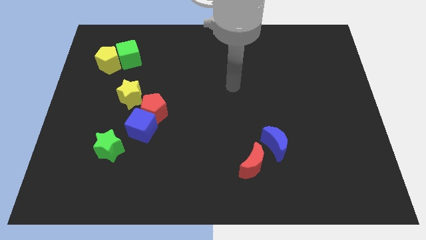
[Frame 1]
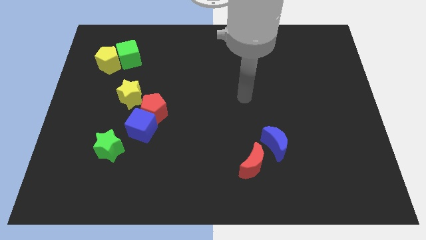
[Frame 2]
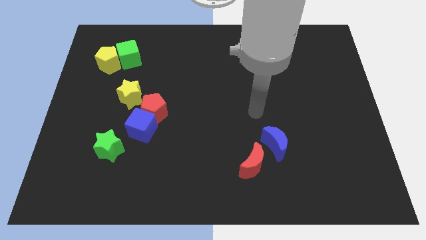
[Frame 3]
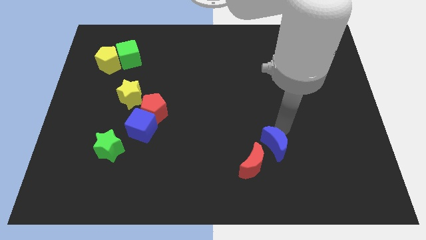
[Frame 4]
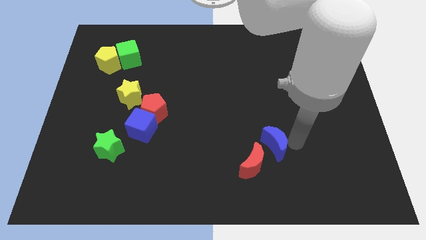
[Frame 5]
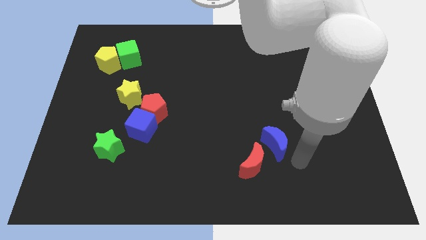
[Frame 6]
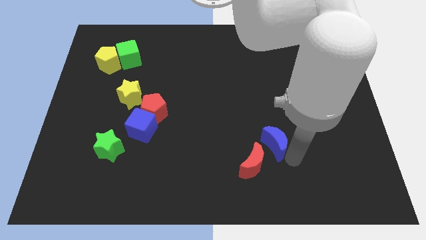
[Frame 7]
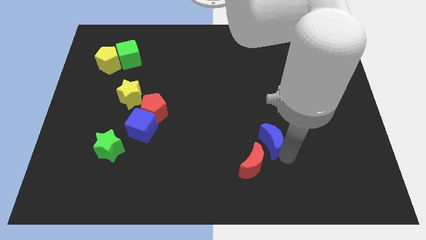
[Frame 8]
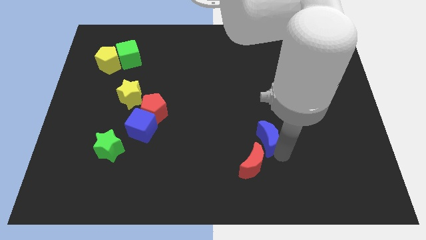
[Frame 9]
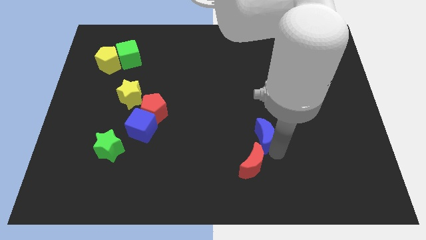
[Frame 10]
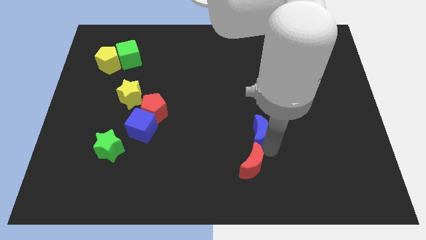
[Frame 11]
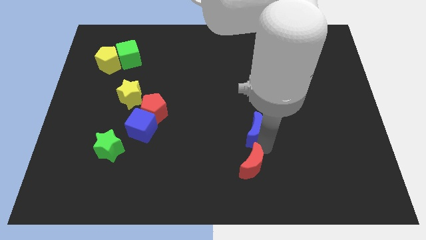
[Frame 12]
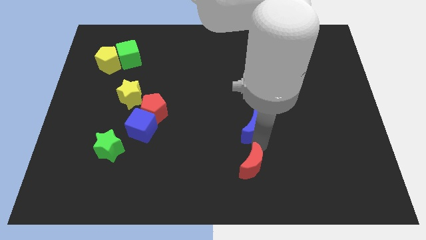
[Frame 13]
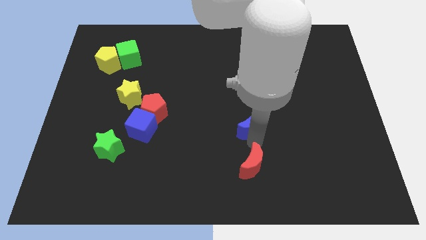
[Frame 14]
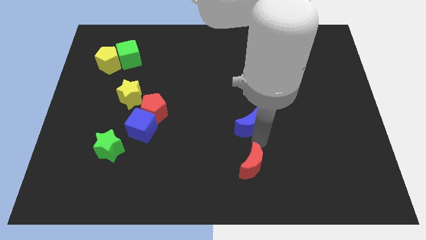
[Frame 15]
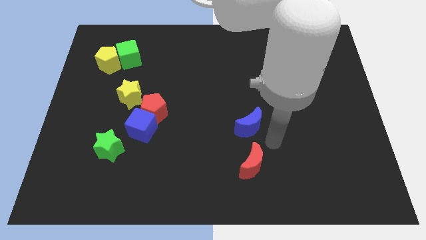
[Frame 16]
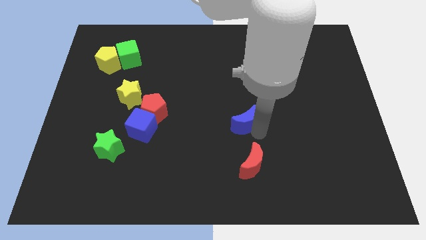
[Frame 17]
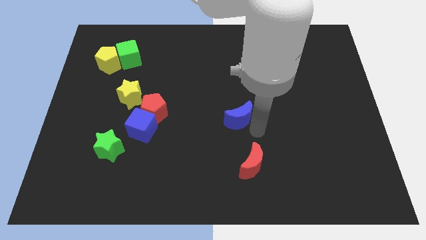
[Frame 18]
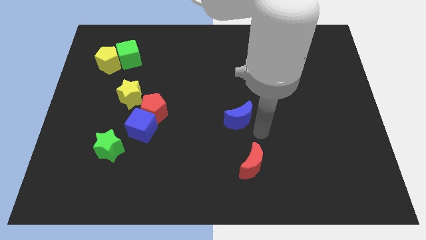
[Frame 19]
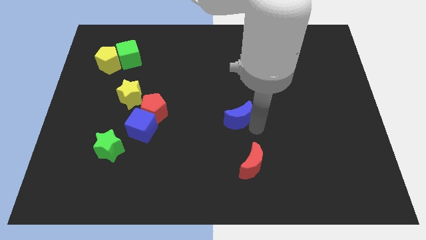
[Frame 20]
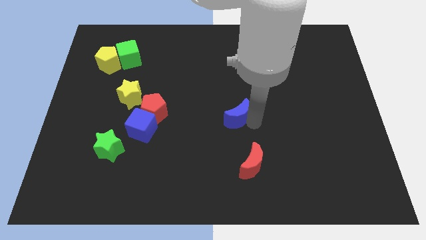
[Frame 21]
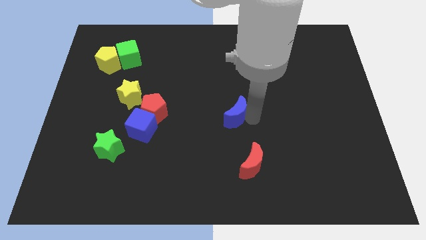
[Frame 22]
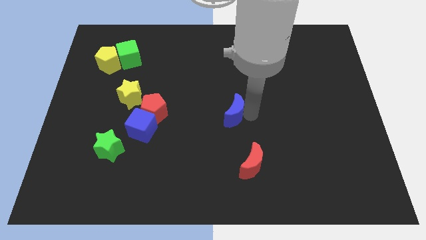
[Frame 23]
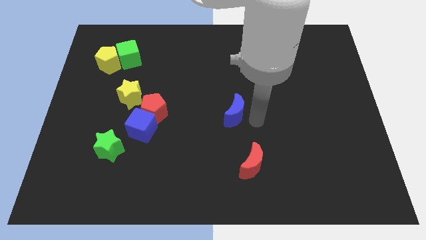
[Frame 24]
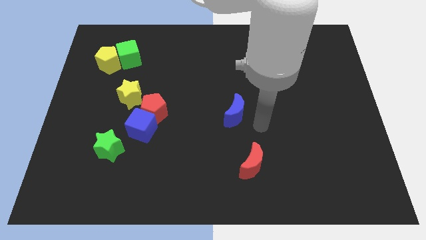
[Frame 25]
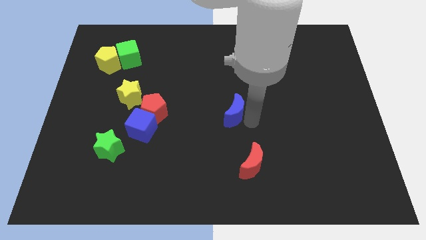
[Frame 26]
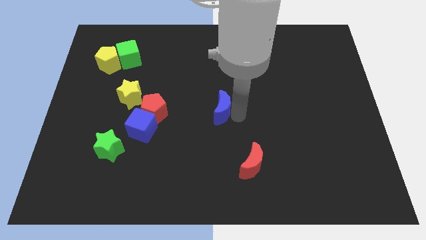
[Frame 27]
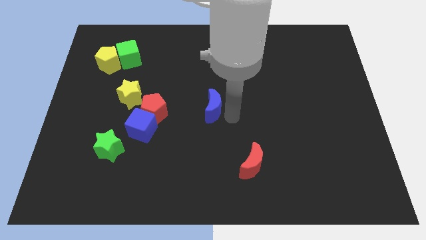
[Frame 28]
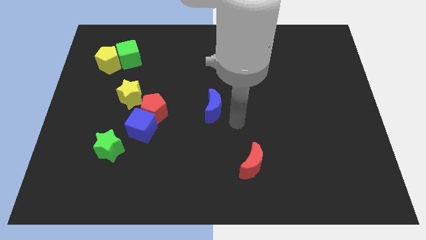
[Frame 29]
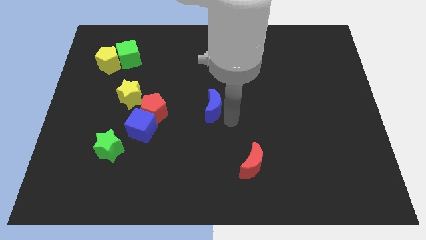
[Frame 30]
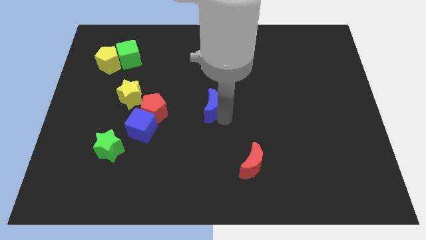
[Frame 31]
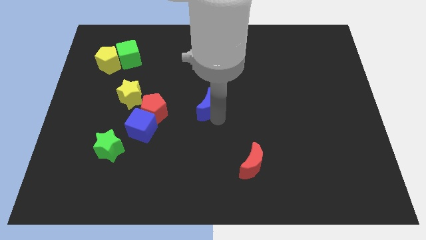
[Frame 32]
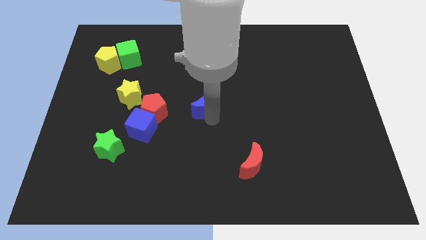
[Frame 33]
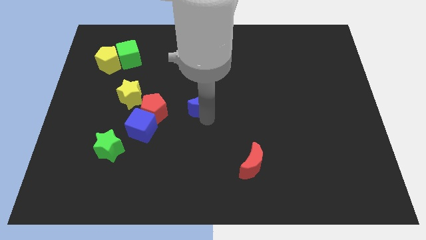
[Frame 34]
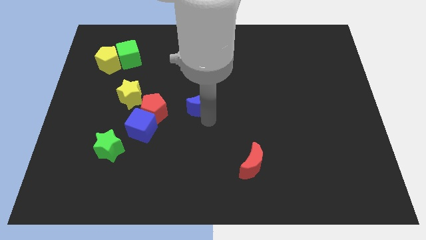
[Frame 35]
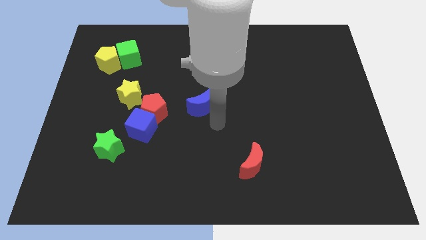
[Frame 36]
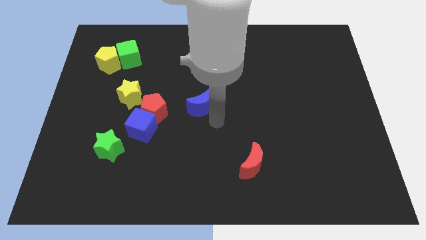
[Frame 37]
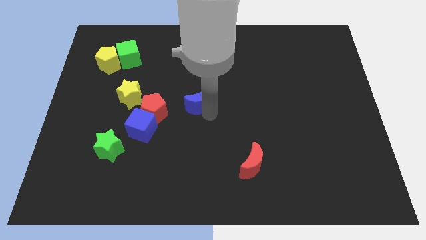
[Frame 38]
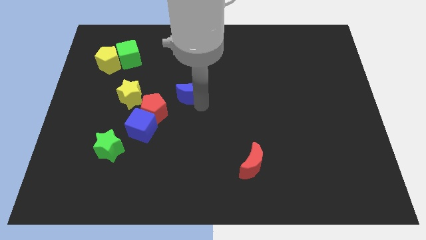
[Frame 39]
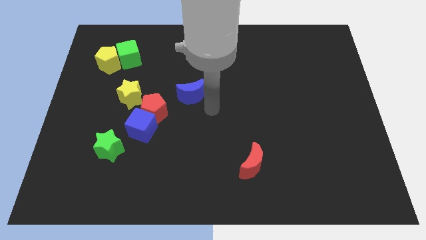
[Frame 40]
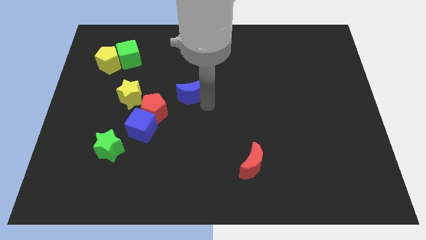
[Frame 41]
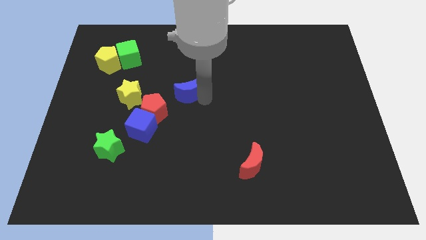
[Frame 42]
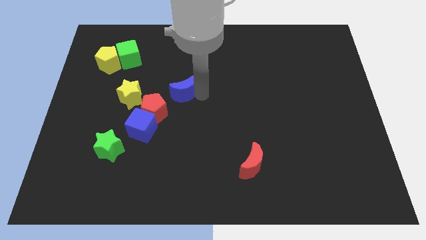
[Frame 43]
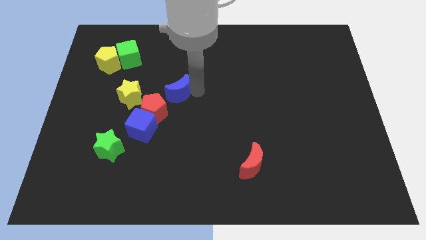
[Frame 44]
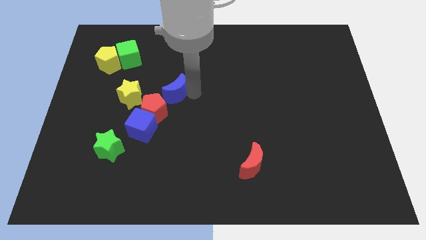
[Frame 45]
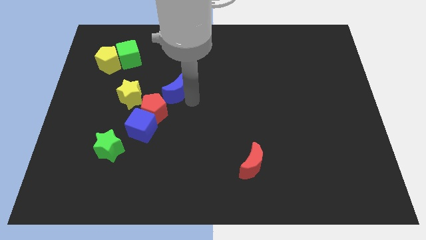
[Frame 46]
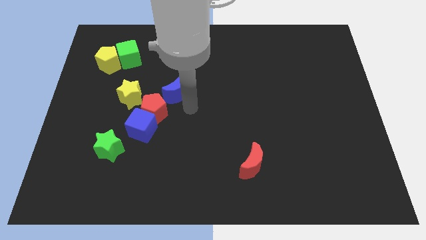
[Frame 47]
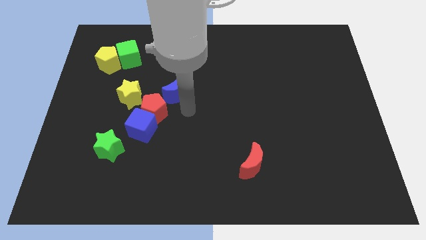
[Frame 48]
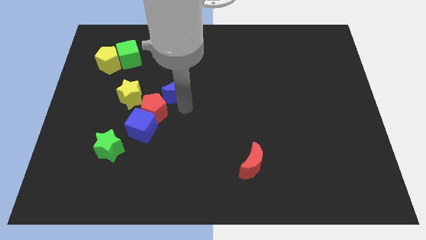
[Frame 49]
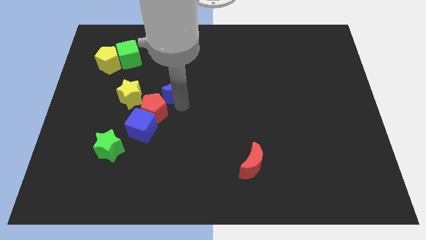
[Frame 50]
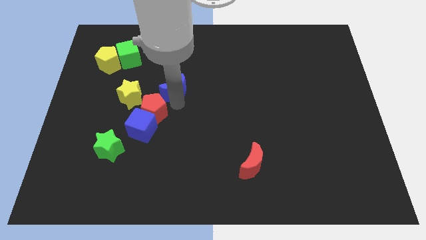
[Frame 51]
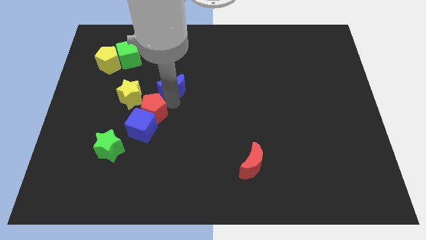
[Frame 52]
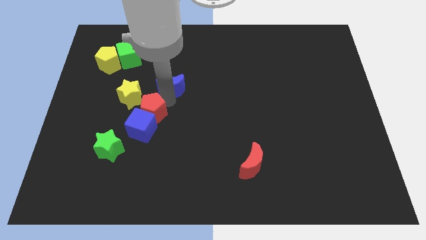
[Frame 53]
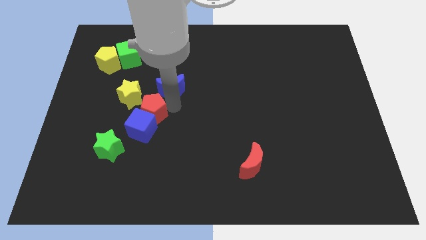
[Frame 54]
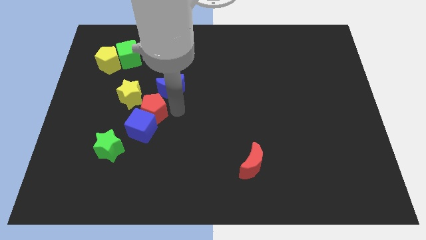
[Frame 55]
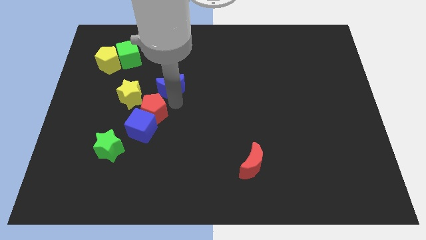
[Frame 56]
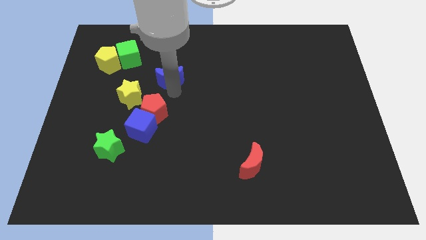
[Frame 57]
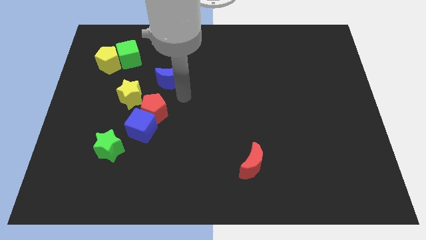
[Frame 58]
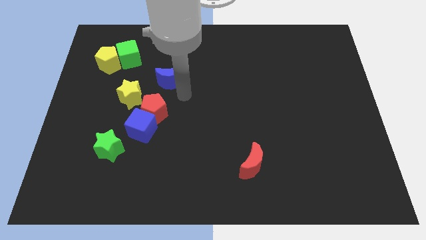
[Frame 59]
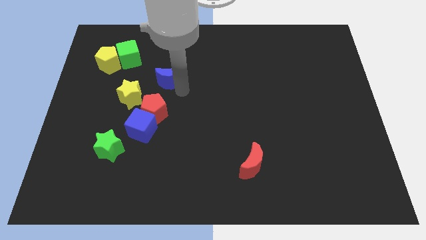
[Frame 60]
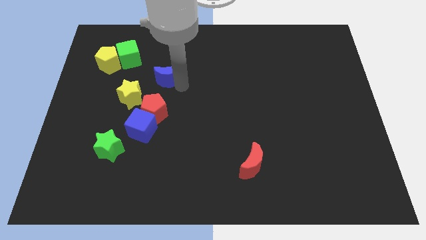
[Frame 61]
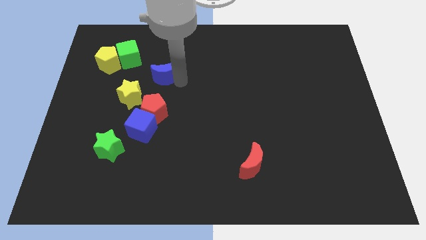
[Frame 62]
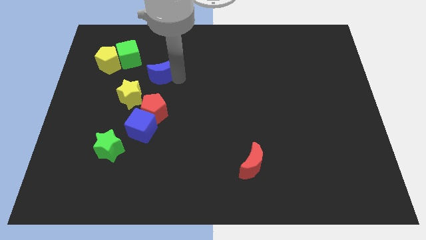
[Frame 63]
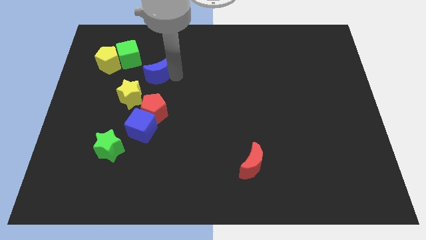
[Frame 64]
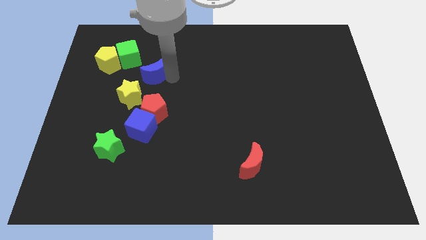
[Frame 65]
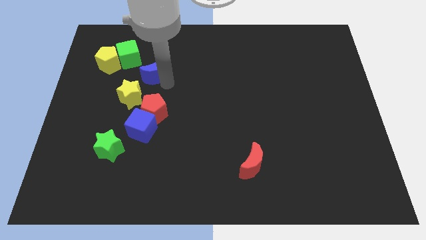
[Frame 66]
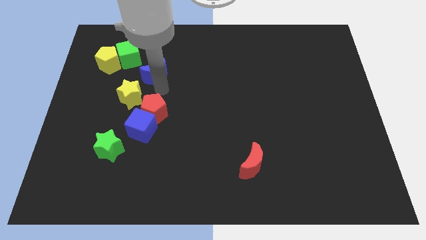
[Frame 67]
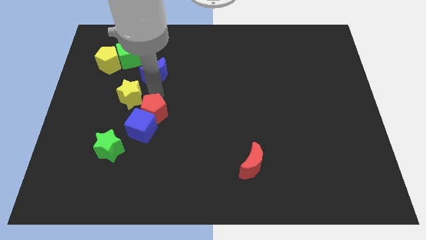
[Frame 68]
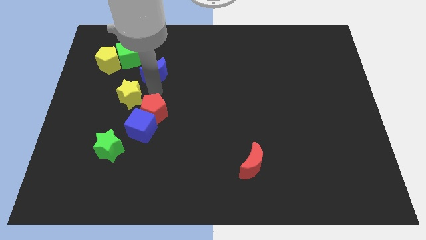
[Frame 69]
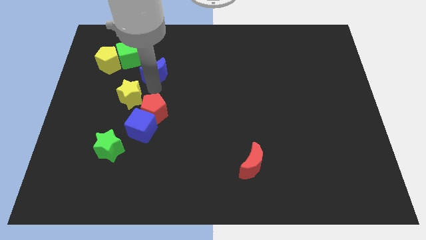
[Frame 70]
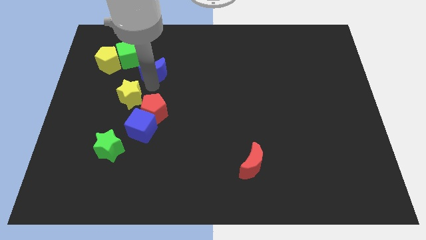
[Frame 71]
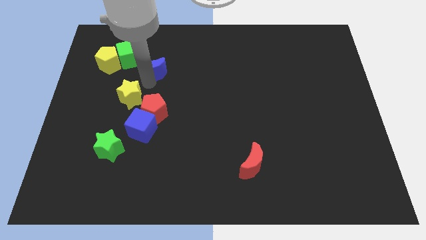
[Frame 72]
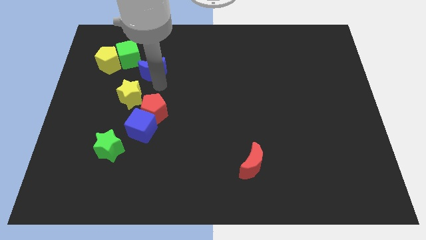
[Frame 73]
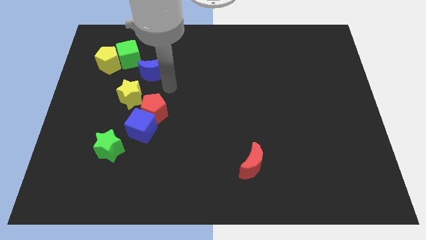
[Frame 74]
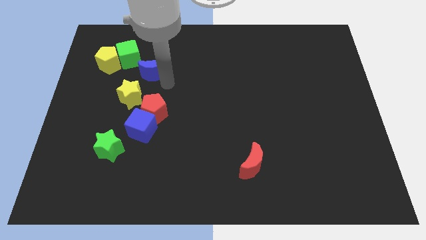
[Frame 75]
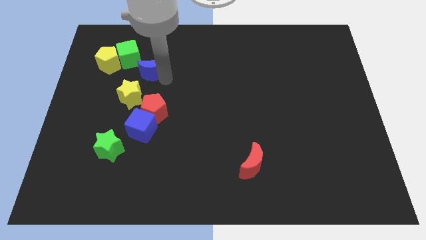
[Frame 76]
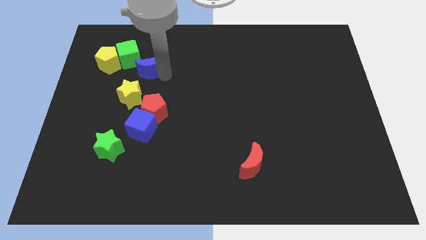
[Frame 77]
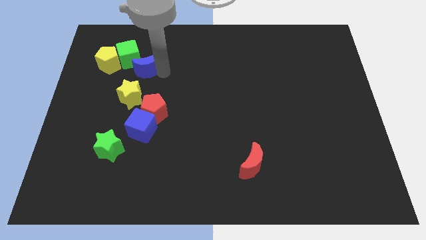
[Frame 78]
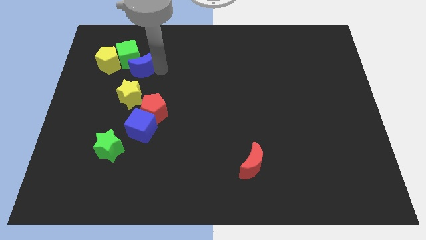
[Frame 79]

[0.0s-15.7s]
put the blue moon to the green cube
